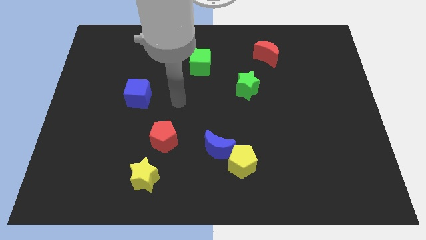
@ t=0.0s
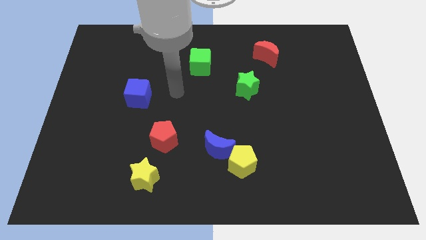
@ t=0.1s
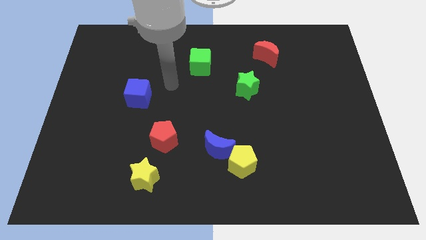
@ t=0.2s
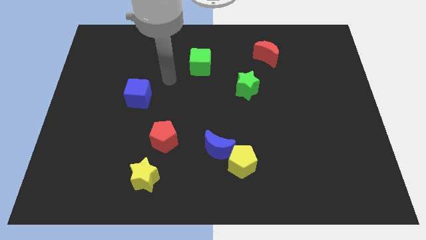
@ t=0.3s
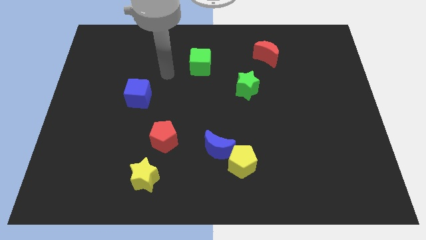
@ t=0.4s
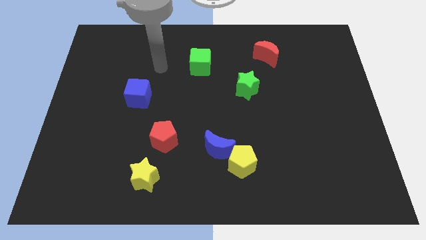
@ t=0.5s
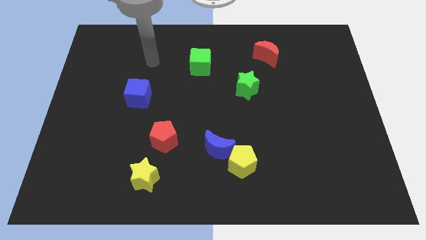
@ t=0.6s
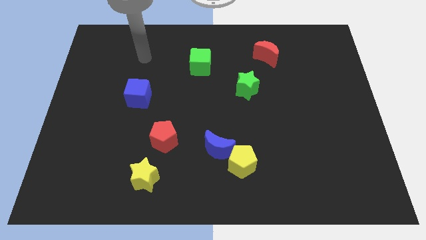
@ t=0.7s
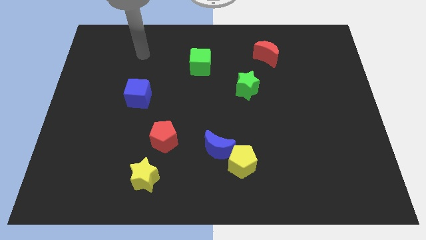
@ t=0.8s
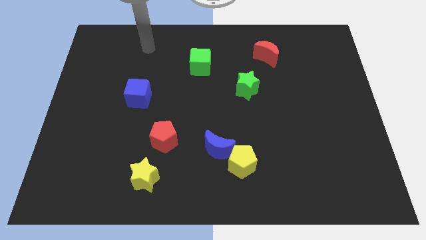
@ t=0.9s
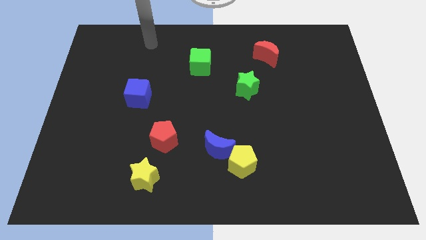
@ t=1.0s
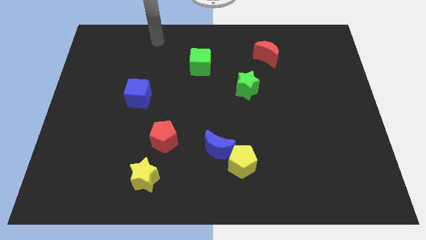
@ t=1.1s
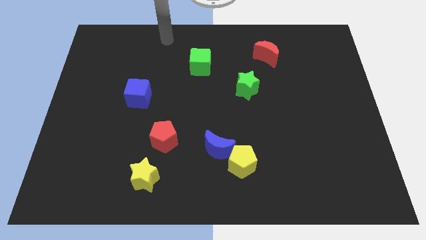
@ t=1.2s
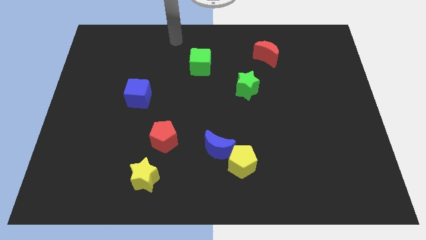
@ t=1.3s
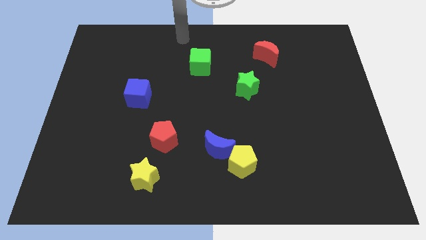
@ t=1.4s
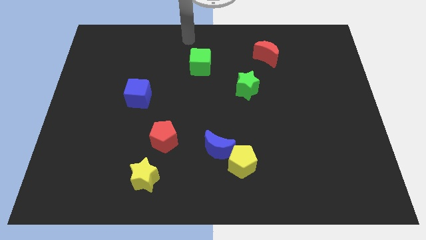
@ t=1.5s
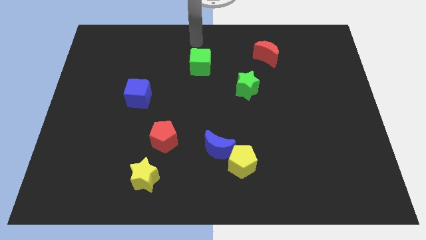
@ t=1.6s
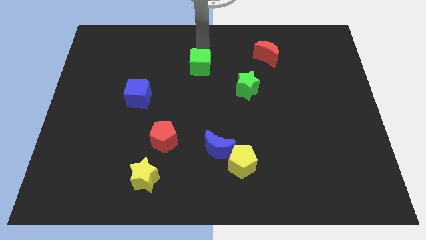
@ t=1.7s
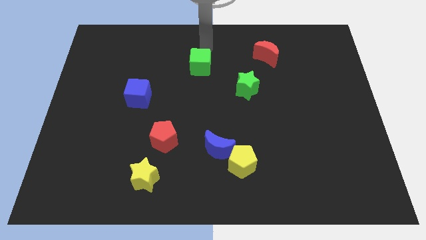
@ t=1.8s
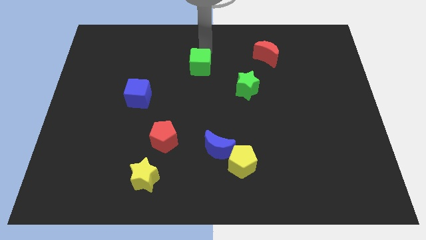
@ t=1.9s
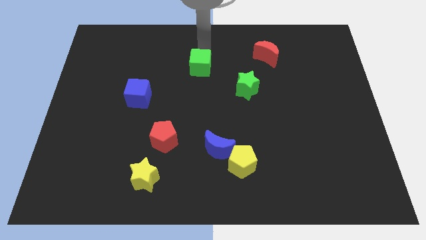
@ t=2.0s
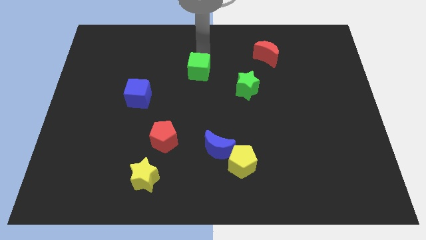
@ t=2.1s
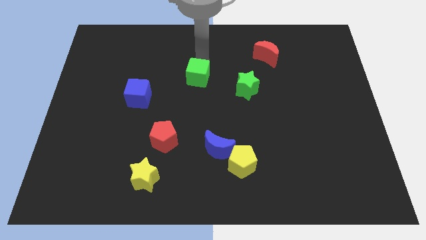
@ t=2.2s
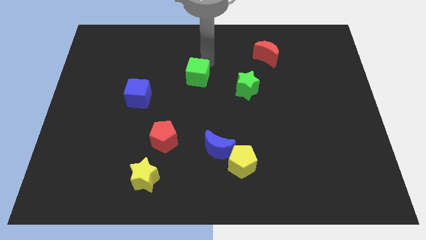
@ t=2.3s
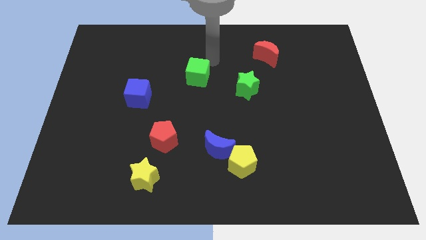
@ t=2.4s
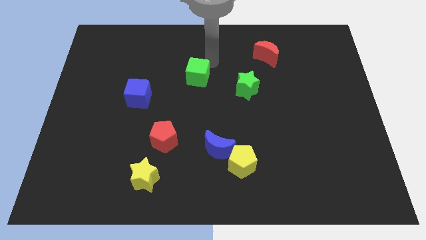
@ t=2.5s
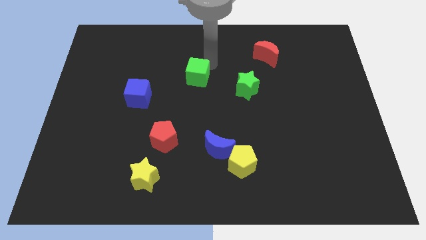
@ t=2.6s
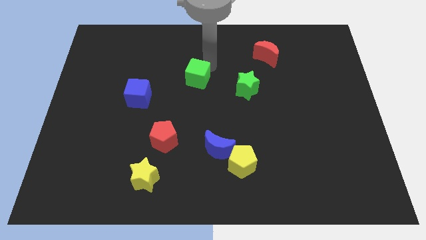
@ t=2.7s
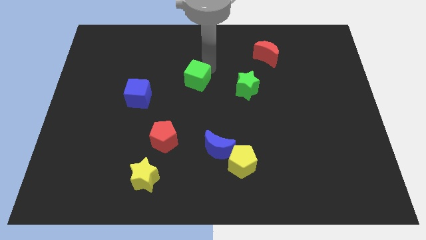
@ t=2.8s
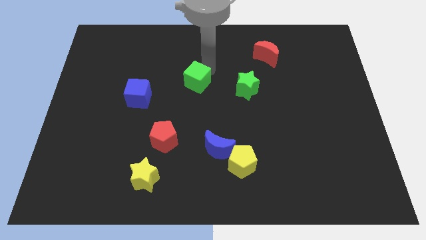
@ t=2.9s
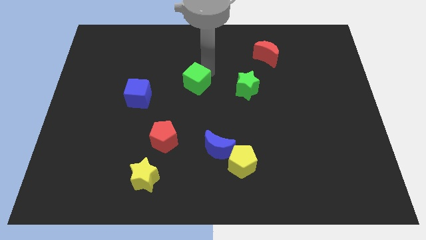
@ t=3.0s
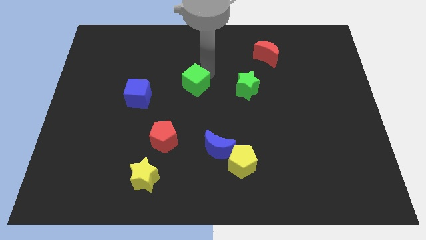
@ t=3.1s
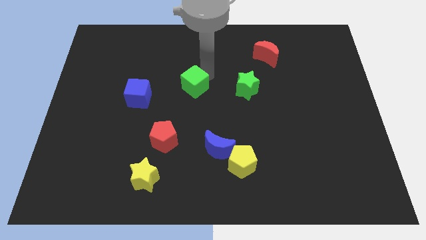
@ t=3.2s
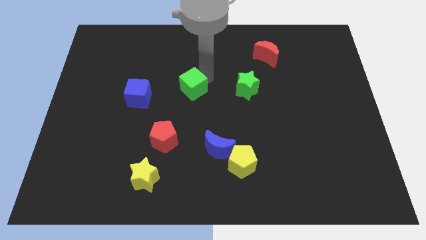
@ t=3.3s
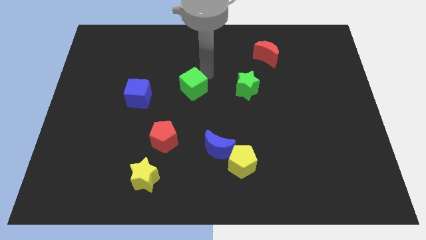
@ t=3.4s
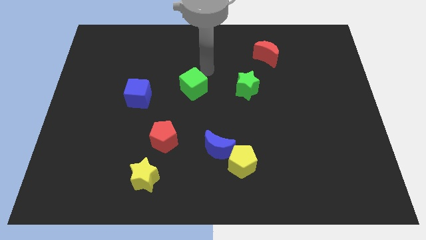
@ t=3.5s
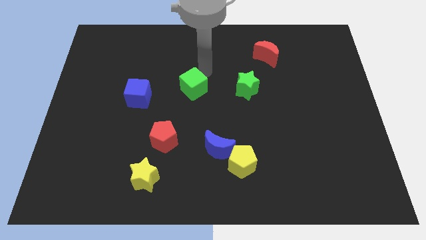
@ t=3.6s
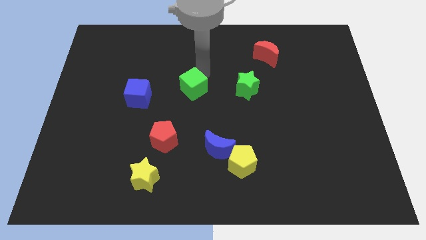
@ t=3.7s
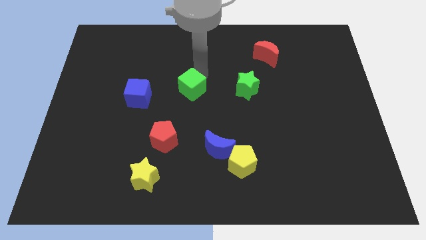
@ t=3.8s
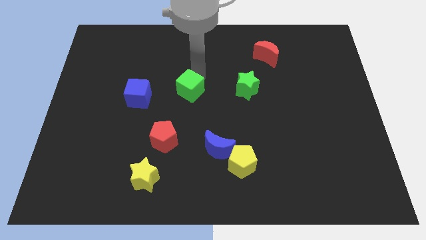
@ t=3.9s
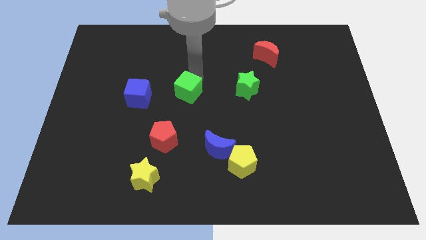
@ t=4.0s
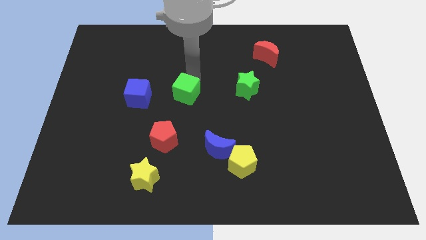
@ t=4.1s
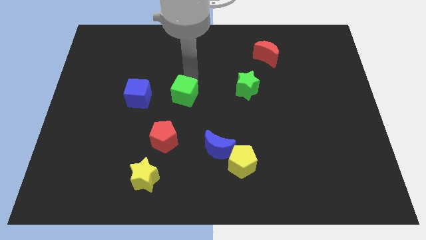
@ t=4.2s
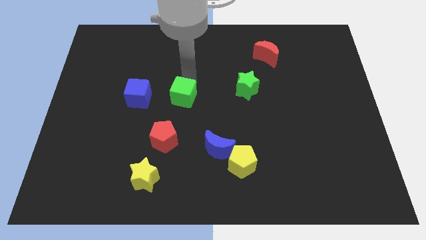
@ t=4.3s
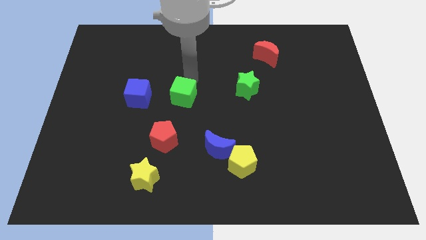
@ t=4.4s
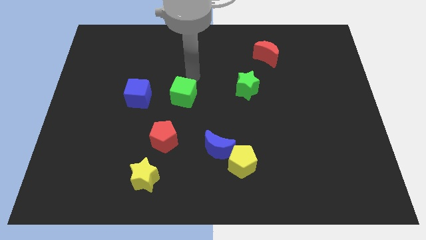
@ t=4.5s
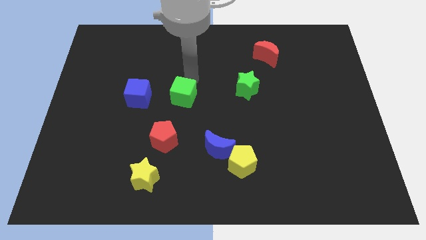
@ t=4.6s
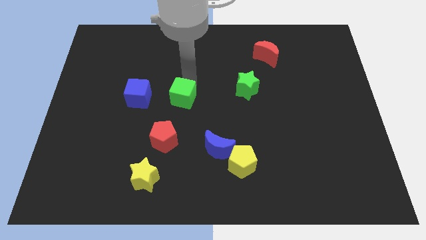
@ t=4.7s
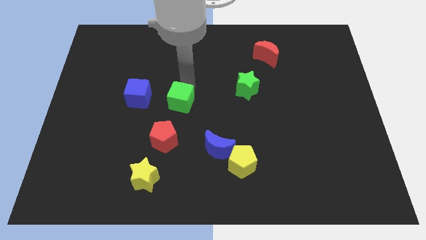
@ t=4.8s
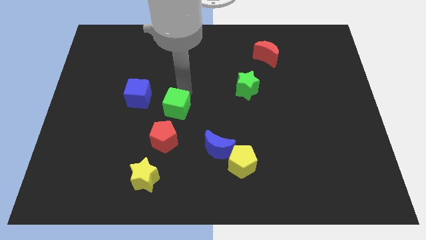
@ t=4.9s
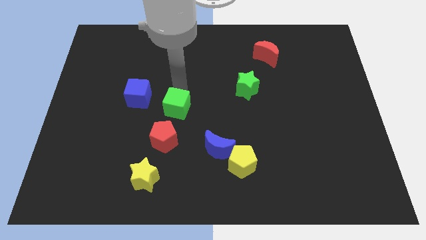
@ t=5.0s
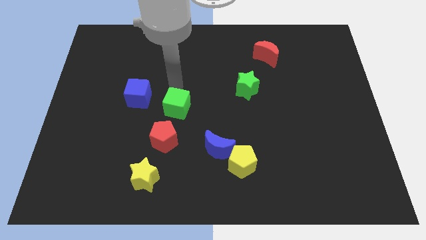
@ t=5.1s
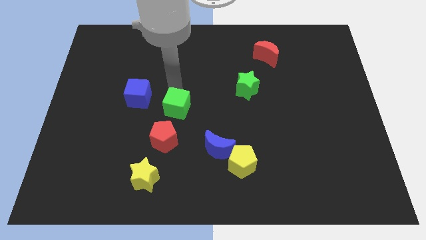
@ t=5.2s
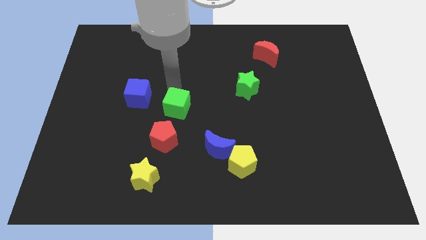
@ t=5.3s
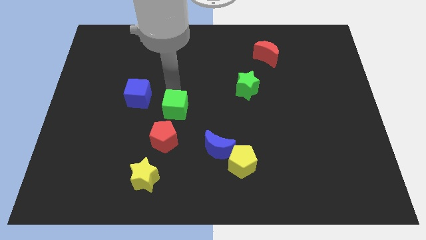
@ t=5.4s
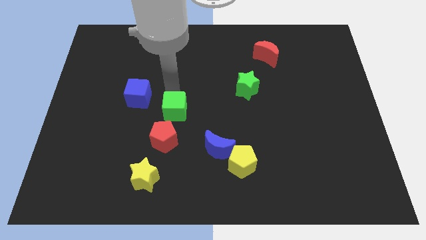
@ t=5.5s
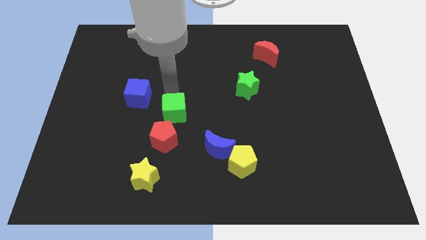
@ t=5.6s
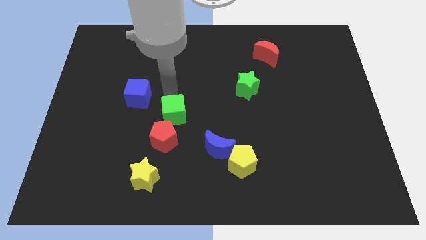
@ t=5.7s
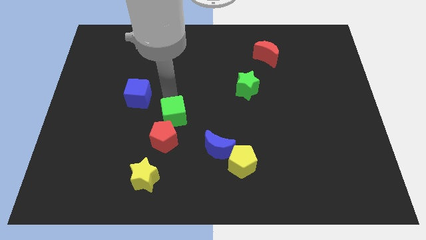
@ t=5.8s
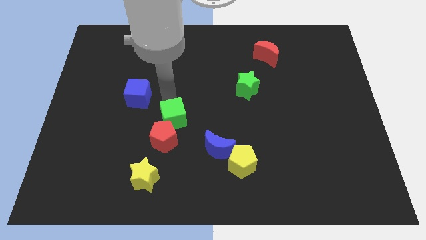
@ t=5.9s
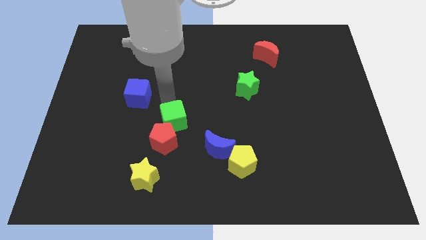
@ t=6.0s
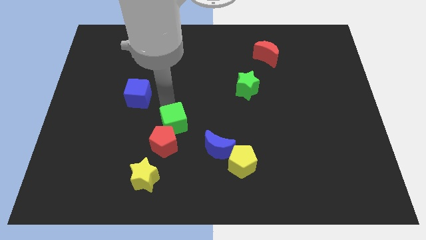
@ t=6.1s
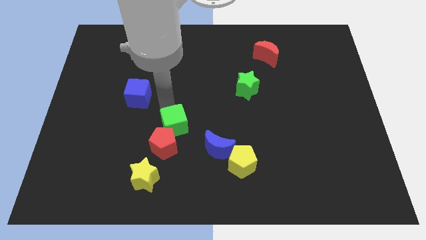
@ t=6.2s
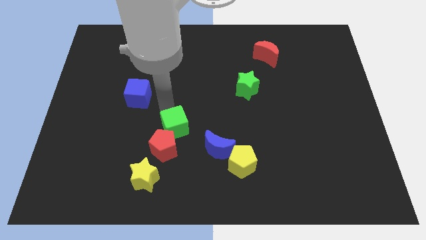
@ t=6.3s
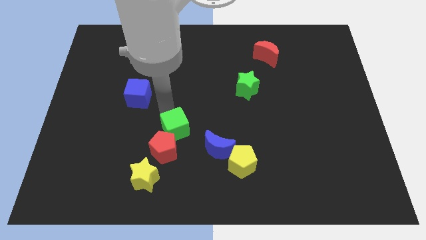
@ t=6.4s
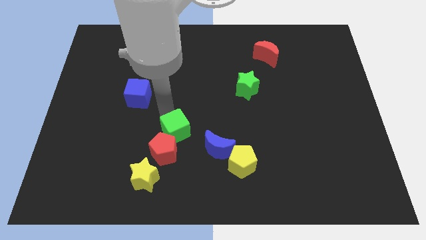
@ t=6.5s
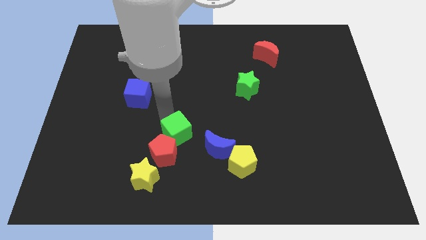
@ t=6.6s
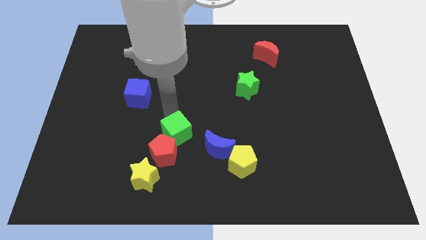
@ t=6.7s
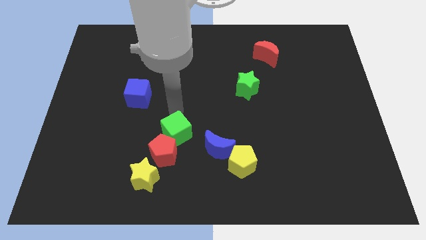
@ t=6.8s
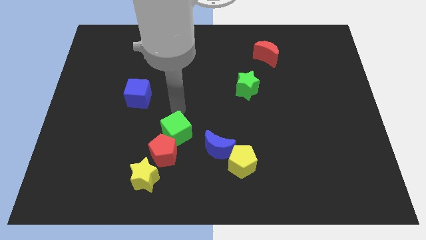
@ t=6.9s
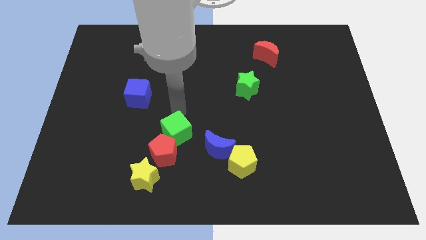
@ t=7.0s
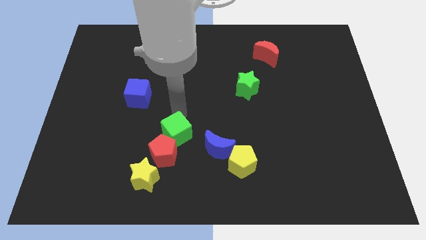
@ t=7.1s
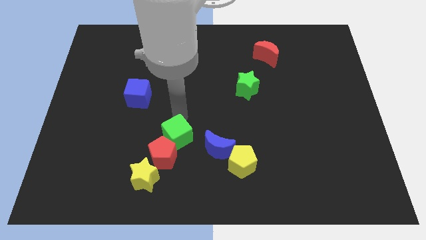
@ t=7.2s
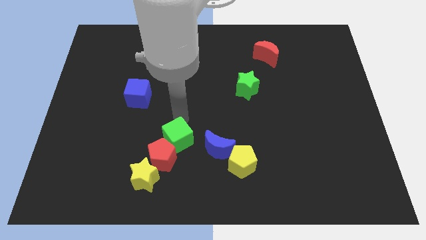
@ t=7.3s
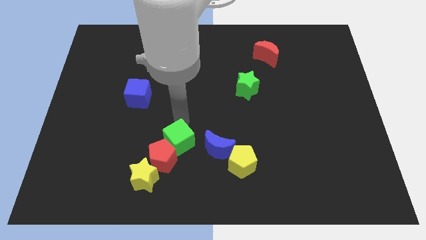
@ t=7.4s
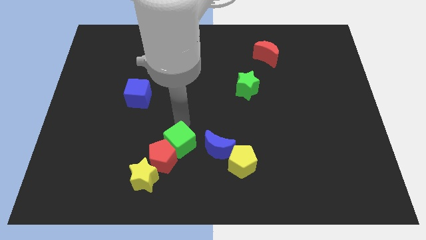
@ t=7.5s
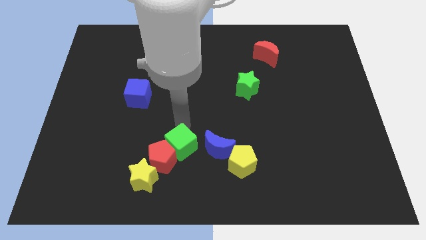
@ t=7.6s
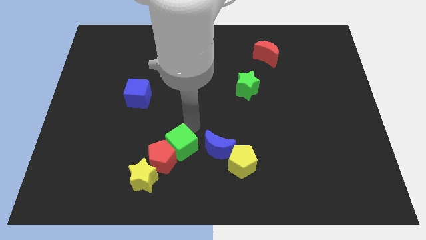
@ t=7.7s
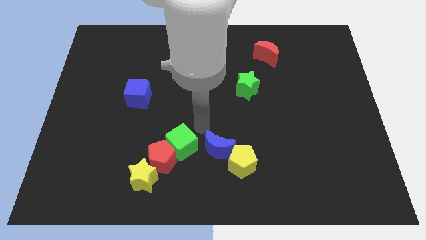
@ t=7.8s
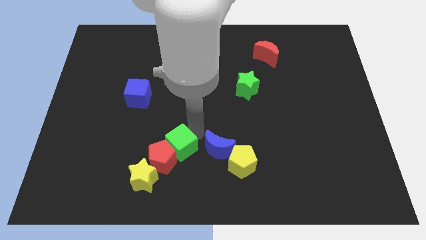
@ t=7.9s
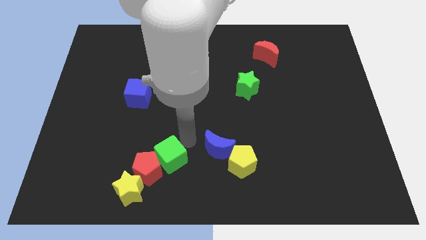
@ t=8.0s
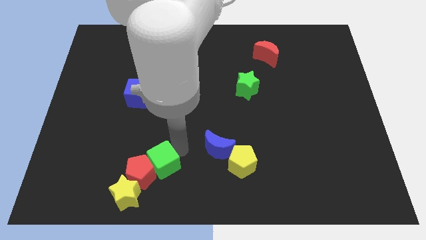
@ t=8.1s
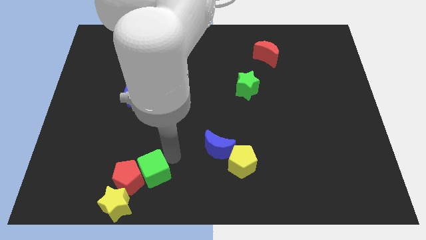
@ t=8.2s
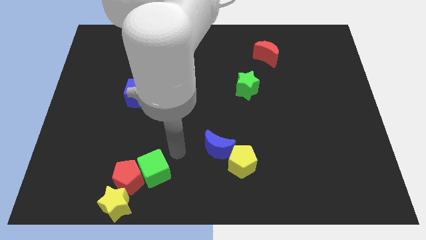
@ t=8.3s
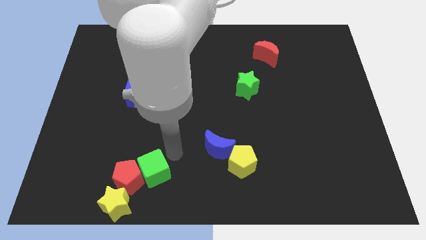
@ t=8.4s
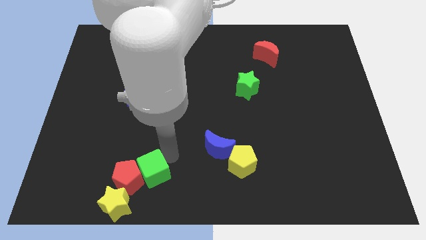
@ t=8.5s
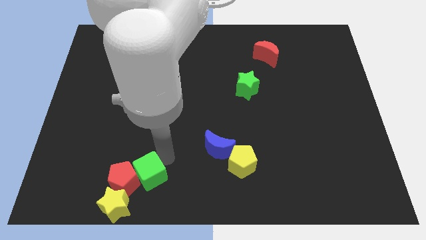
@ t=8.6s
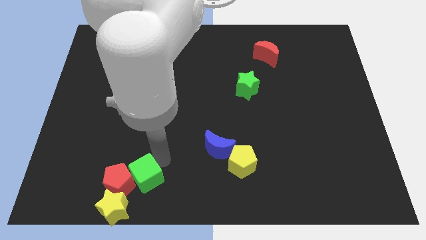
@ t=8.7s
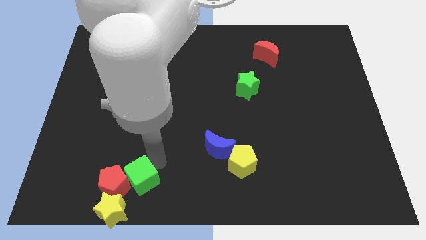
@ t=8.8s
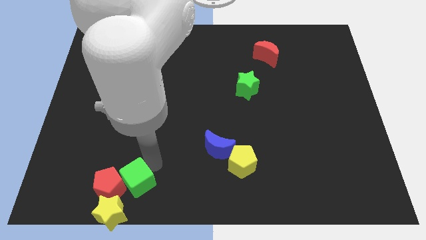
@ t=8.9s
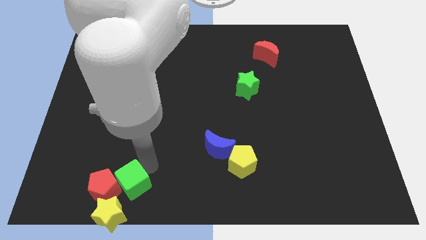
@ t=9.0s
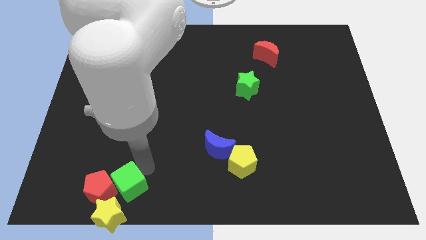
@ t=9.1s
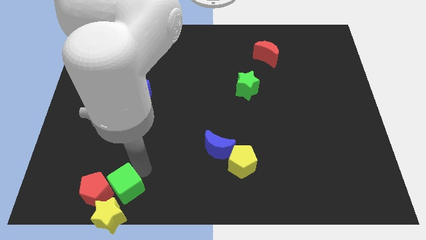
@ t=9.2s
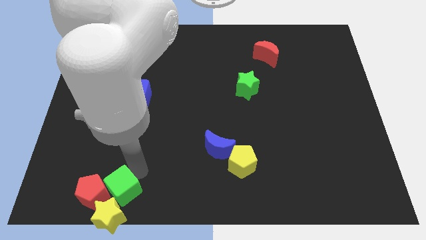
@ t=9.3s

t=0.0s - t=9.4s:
slide the green cube to the yellow star
